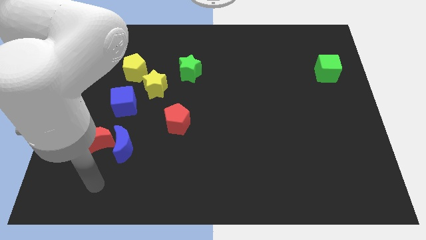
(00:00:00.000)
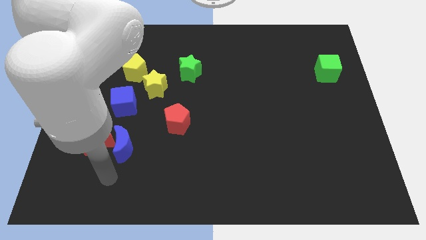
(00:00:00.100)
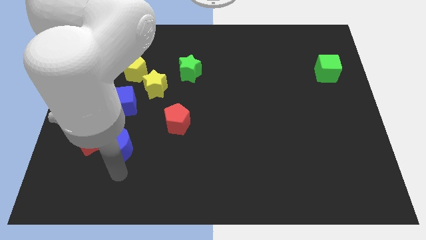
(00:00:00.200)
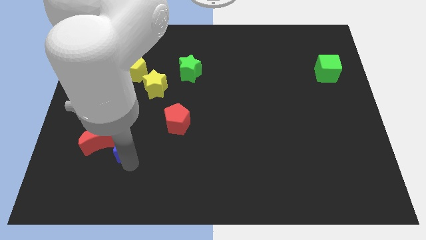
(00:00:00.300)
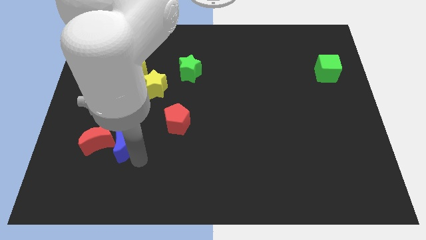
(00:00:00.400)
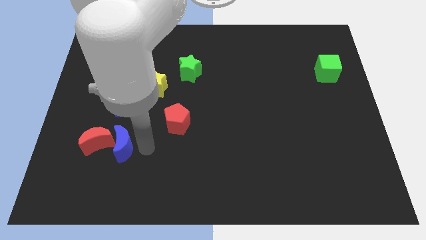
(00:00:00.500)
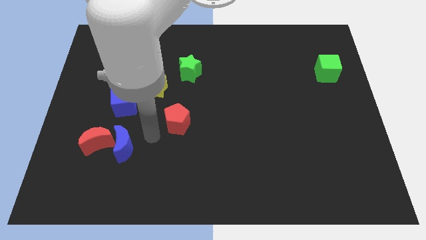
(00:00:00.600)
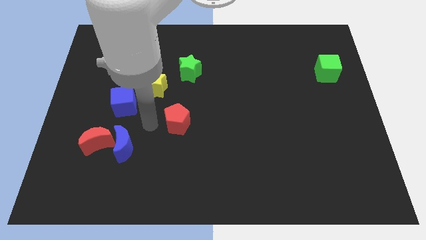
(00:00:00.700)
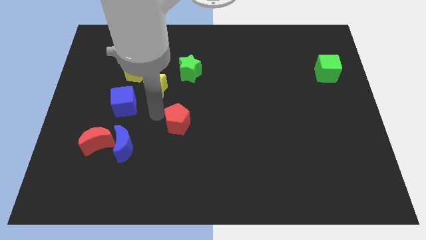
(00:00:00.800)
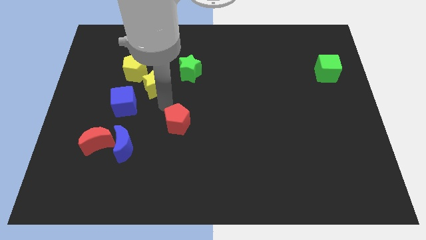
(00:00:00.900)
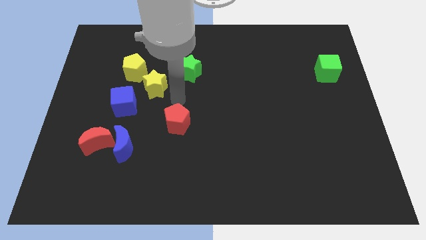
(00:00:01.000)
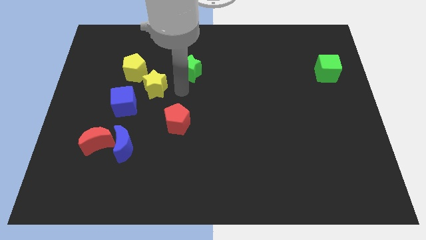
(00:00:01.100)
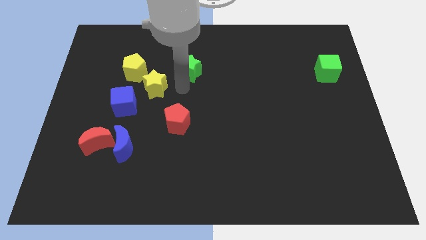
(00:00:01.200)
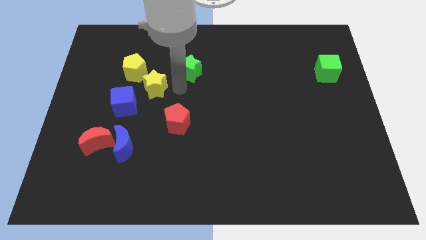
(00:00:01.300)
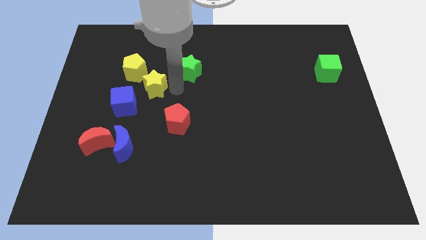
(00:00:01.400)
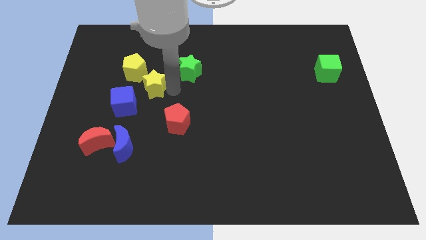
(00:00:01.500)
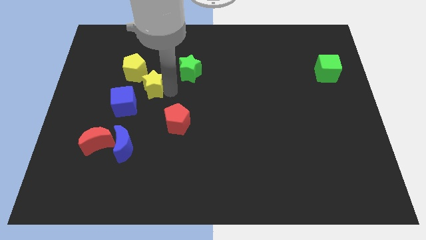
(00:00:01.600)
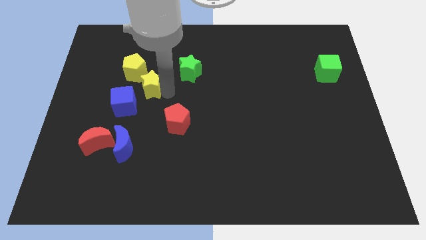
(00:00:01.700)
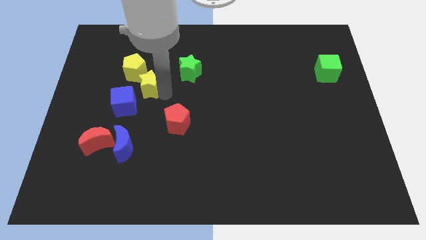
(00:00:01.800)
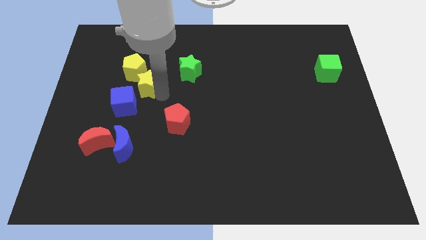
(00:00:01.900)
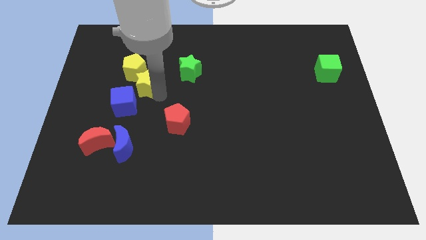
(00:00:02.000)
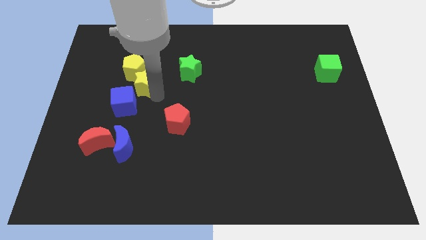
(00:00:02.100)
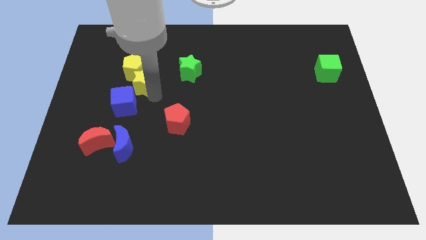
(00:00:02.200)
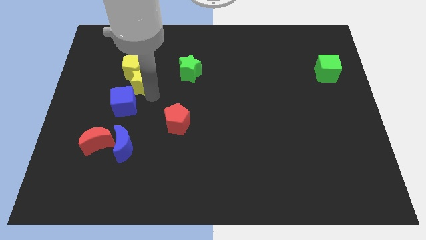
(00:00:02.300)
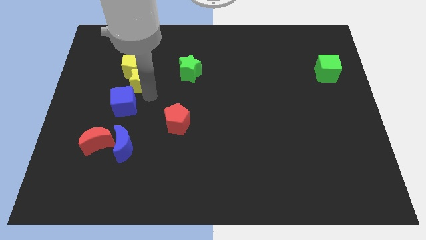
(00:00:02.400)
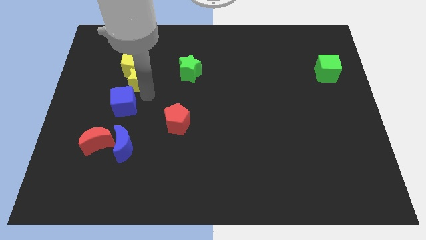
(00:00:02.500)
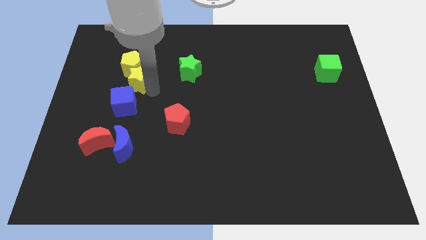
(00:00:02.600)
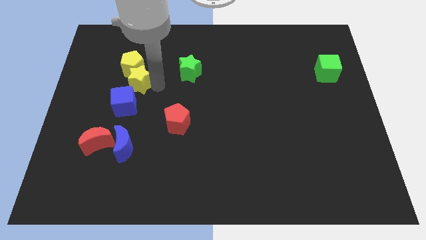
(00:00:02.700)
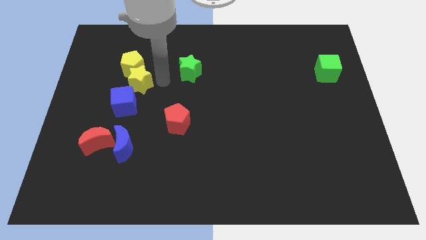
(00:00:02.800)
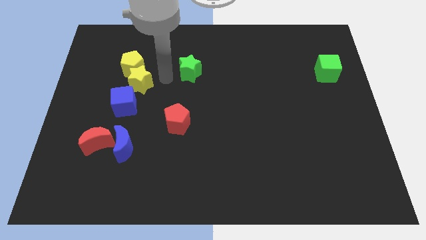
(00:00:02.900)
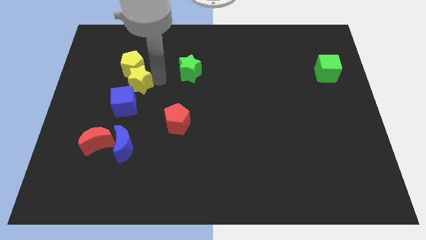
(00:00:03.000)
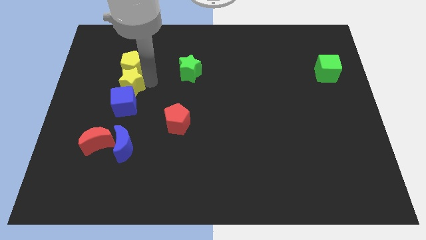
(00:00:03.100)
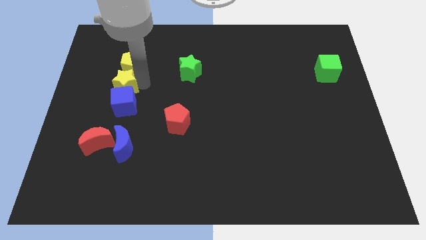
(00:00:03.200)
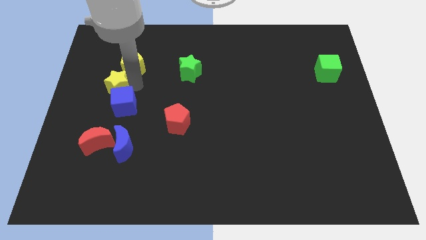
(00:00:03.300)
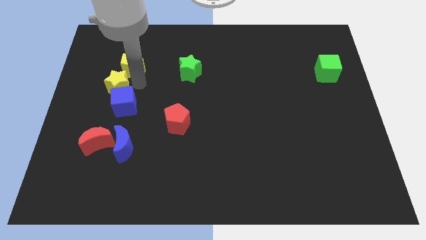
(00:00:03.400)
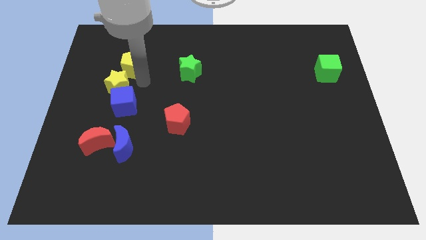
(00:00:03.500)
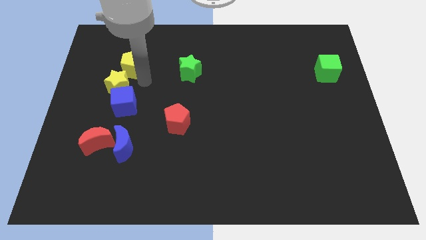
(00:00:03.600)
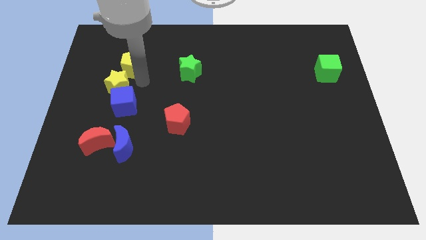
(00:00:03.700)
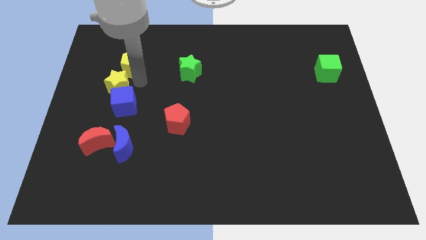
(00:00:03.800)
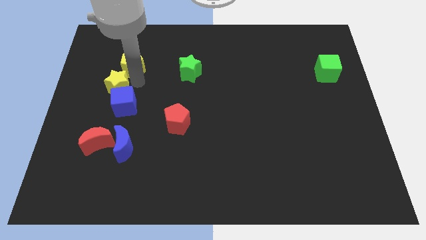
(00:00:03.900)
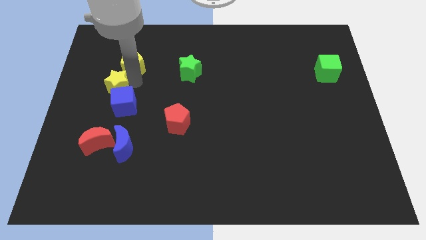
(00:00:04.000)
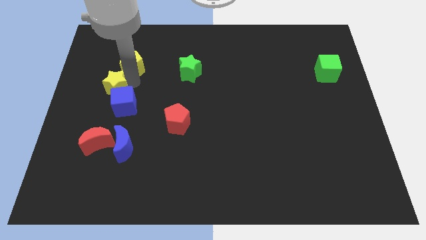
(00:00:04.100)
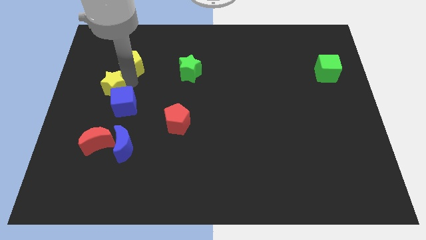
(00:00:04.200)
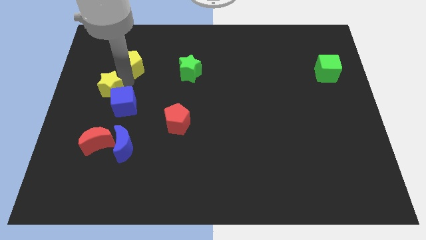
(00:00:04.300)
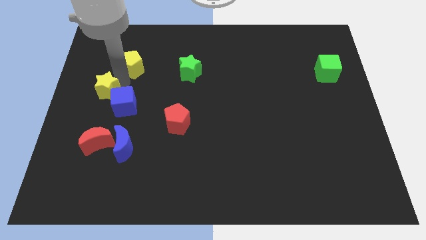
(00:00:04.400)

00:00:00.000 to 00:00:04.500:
move the yellow star to the left side

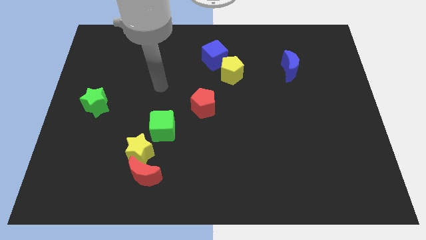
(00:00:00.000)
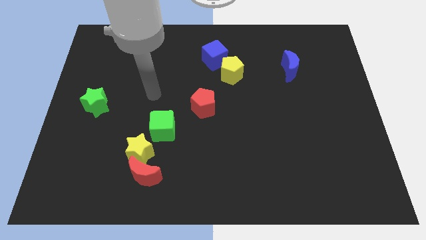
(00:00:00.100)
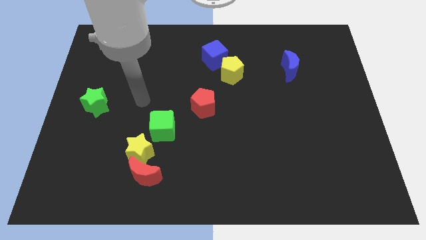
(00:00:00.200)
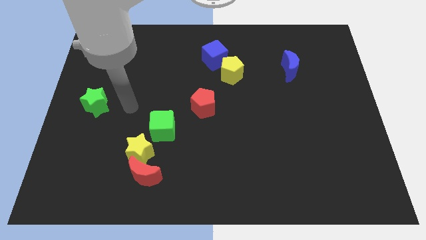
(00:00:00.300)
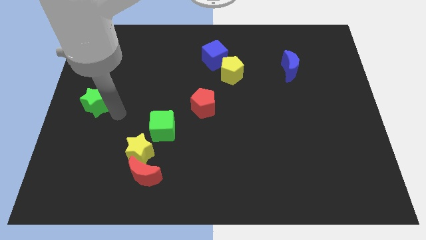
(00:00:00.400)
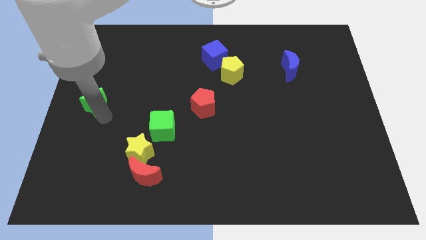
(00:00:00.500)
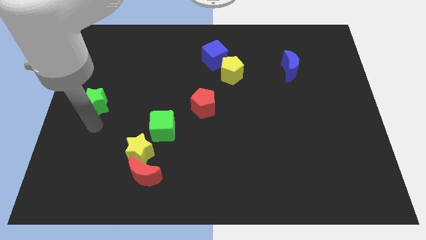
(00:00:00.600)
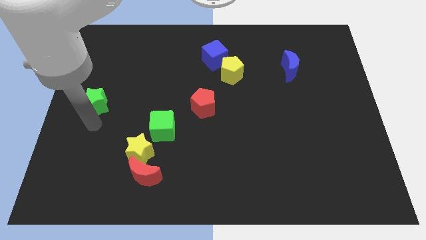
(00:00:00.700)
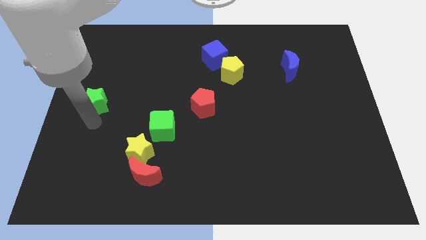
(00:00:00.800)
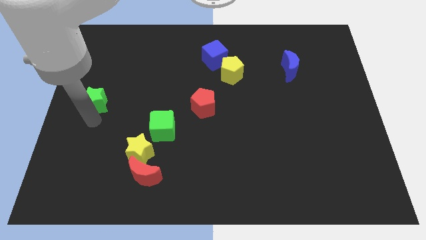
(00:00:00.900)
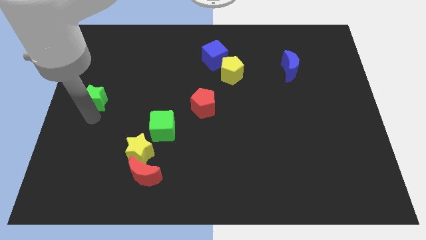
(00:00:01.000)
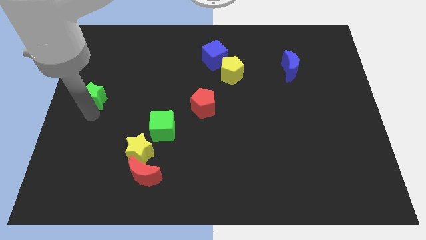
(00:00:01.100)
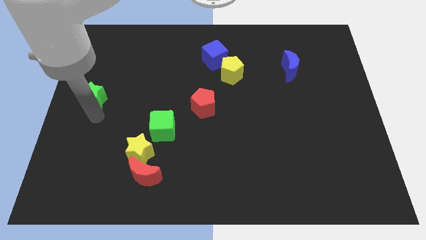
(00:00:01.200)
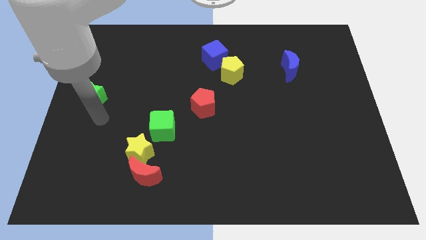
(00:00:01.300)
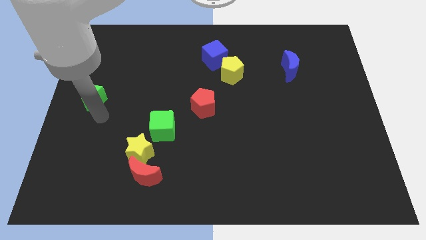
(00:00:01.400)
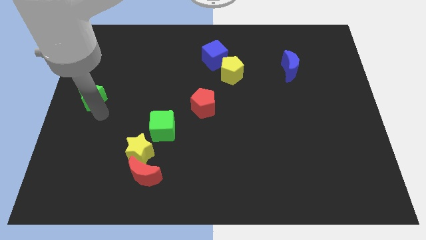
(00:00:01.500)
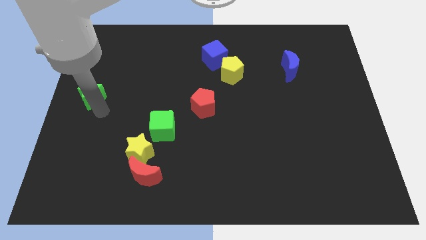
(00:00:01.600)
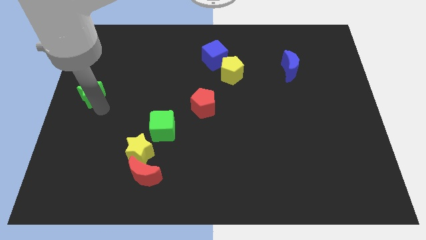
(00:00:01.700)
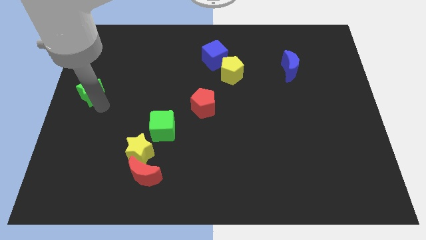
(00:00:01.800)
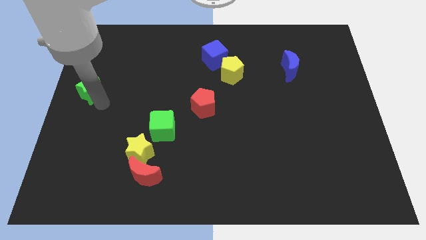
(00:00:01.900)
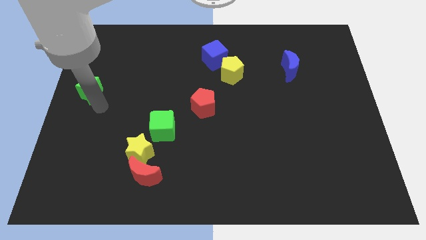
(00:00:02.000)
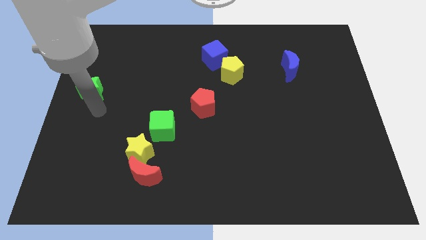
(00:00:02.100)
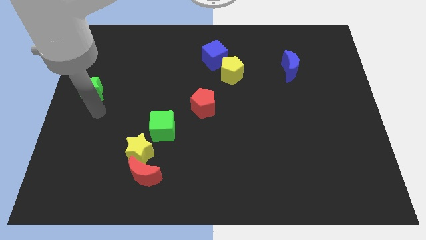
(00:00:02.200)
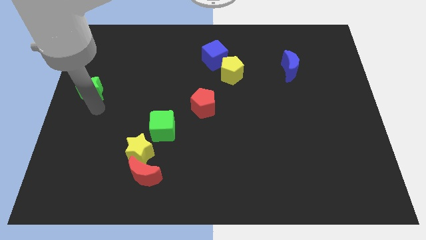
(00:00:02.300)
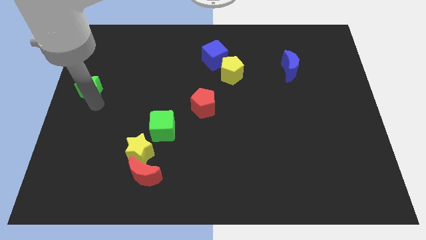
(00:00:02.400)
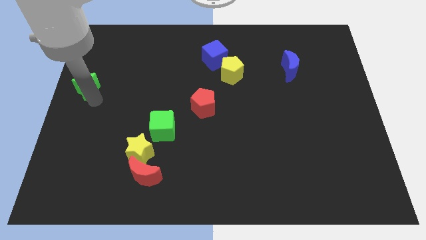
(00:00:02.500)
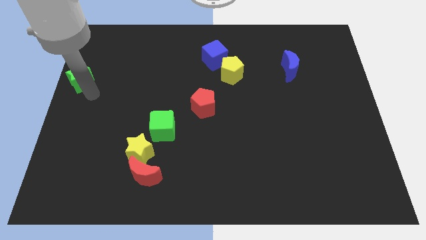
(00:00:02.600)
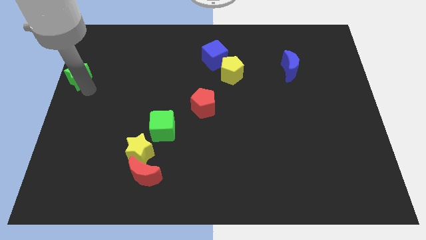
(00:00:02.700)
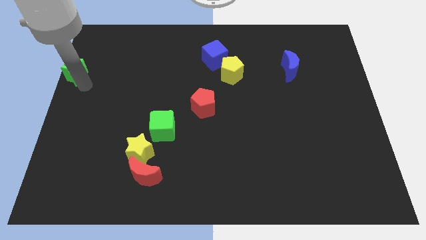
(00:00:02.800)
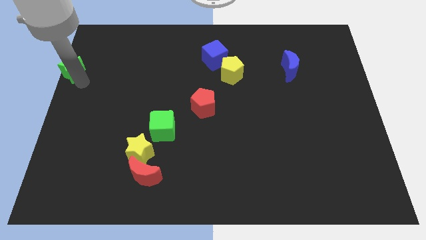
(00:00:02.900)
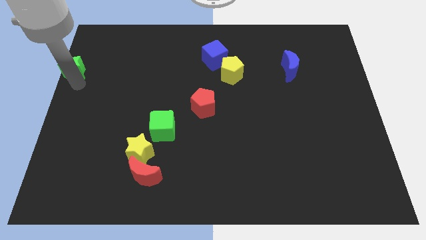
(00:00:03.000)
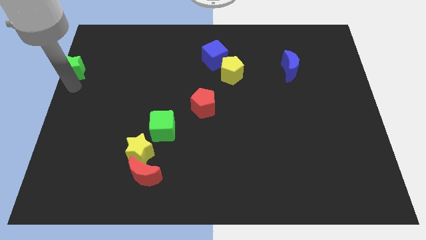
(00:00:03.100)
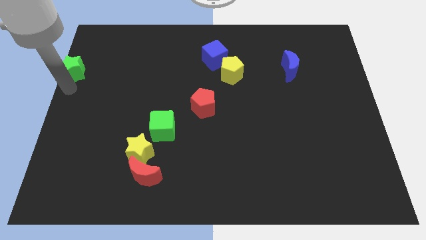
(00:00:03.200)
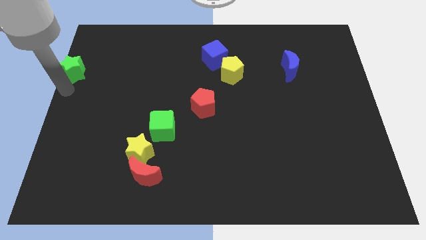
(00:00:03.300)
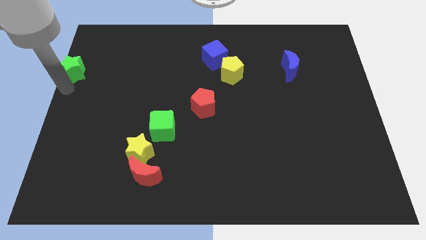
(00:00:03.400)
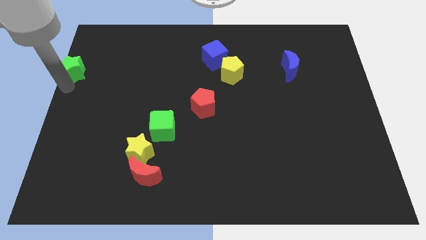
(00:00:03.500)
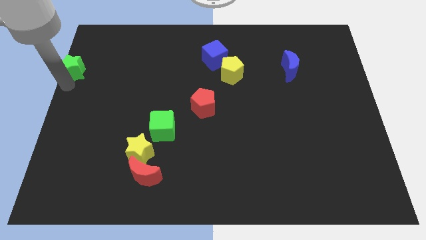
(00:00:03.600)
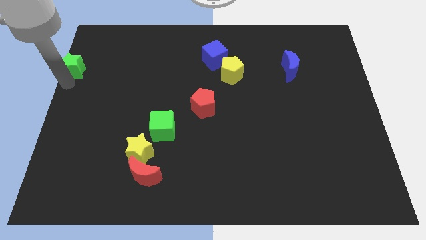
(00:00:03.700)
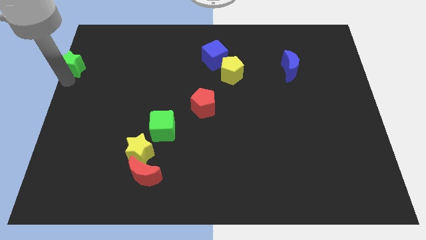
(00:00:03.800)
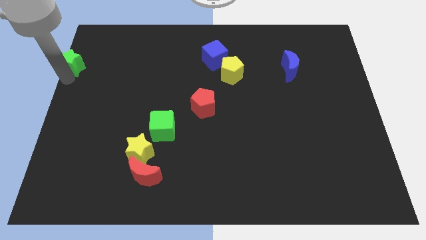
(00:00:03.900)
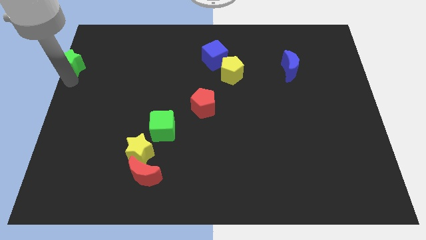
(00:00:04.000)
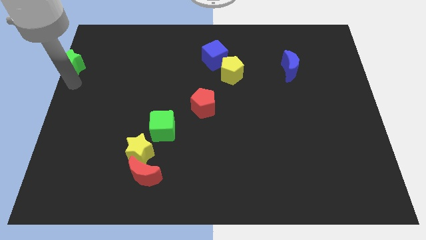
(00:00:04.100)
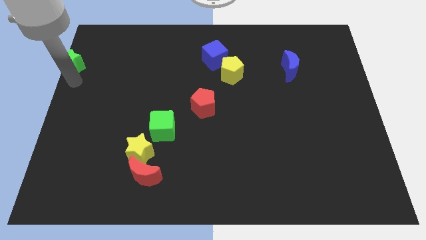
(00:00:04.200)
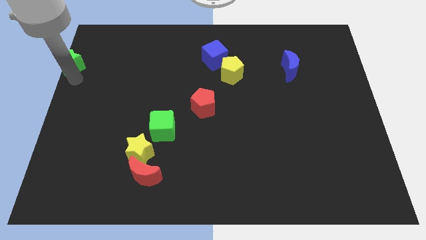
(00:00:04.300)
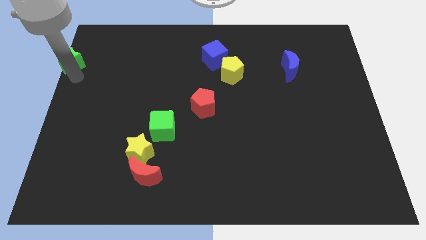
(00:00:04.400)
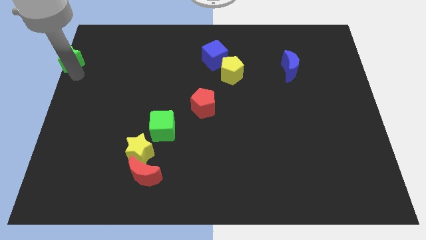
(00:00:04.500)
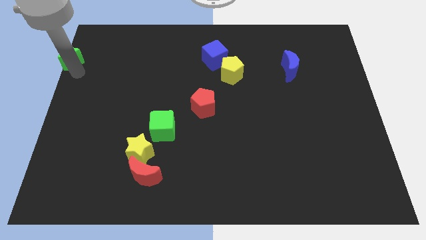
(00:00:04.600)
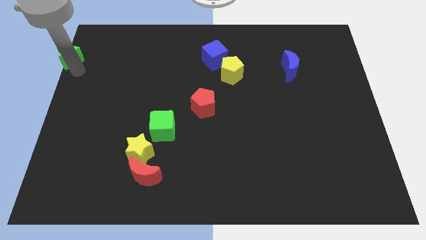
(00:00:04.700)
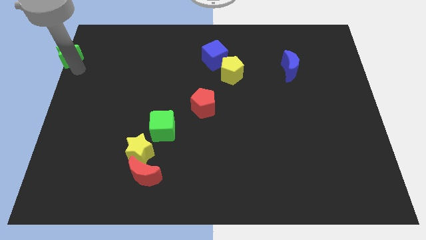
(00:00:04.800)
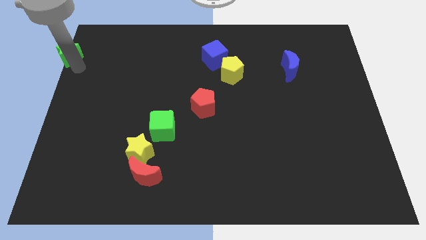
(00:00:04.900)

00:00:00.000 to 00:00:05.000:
push the green star to the top left of the board
